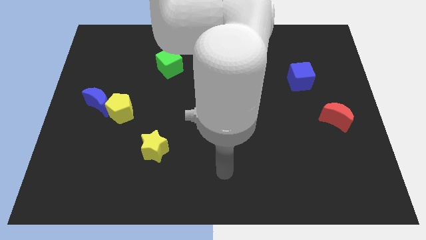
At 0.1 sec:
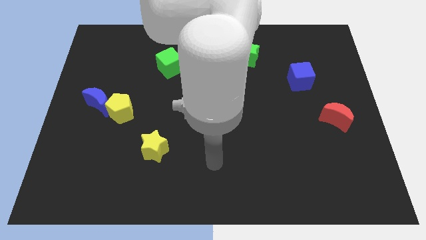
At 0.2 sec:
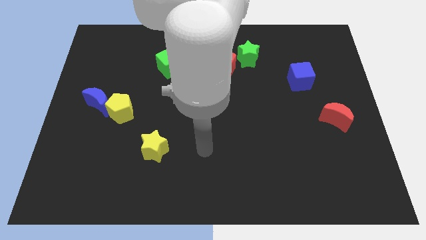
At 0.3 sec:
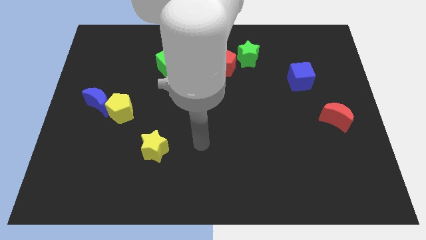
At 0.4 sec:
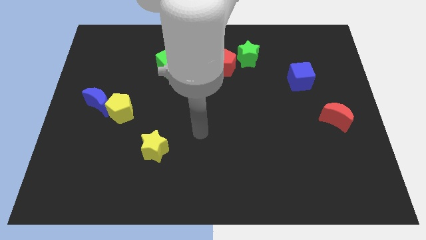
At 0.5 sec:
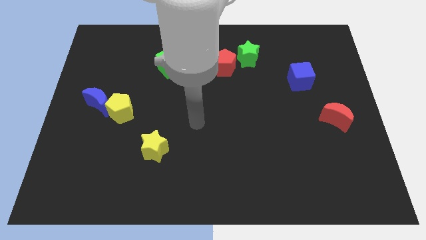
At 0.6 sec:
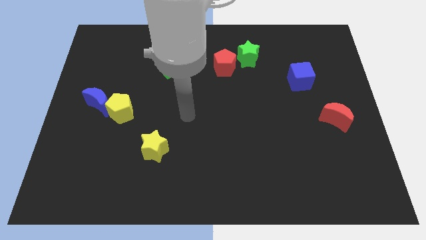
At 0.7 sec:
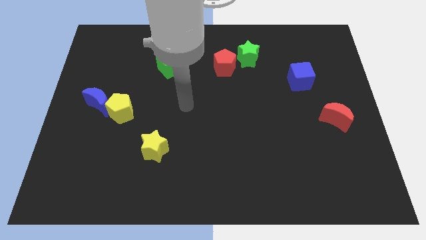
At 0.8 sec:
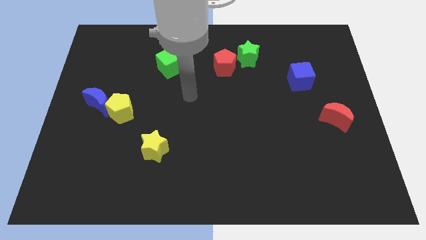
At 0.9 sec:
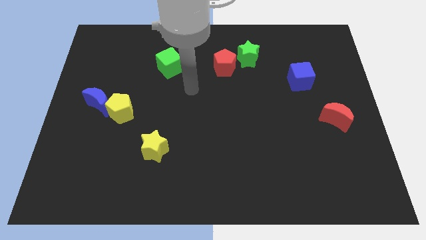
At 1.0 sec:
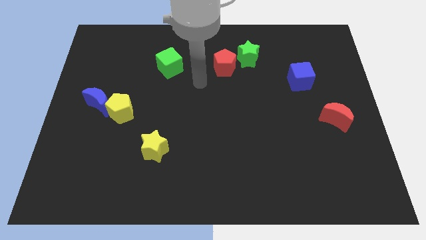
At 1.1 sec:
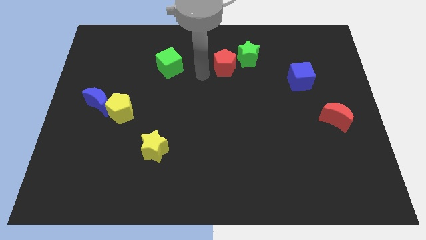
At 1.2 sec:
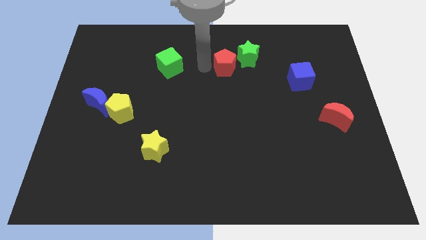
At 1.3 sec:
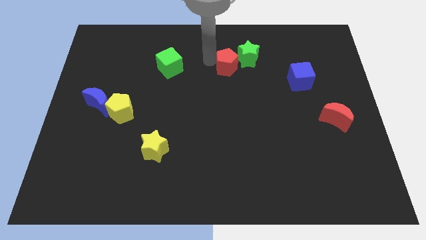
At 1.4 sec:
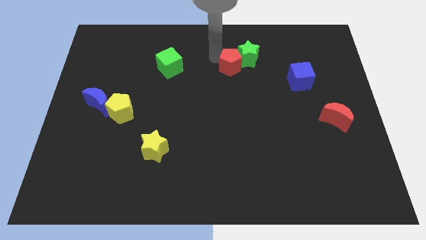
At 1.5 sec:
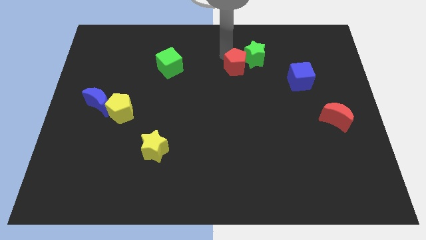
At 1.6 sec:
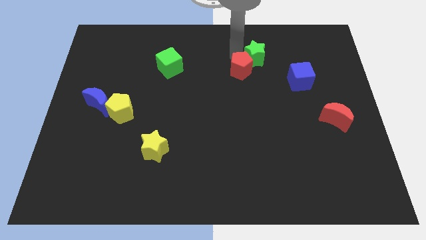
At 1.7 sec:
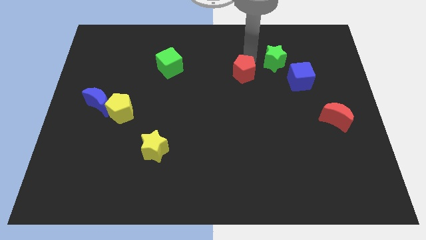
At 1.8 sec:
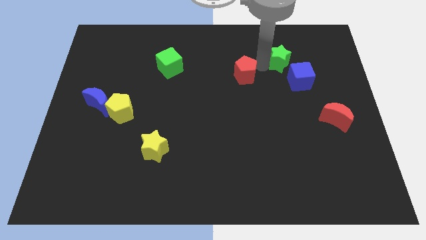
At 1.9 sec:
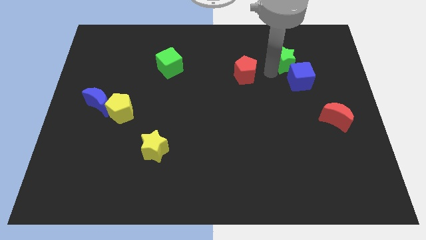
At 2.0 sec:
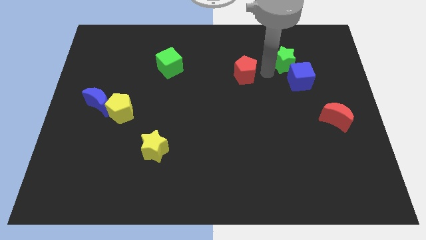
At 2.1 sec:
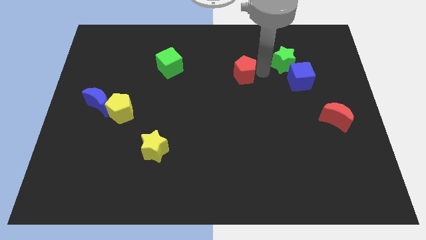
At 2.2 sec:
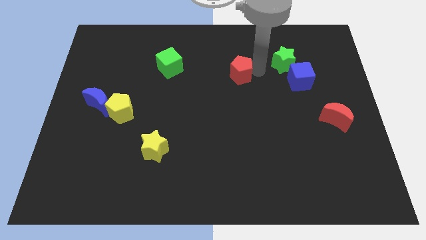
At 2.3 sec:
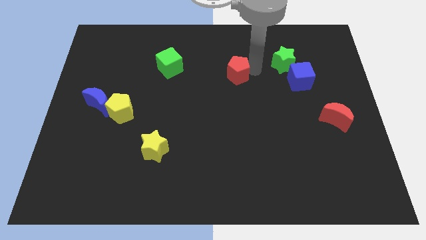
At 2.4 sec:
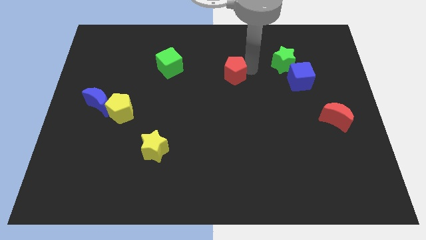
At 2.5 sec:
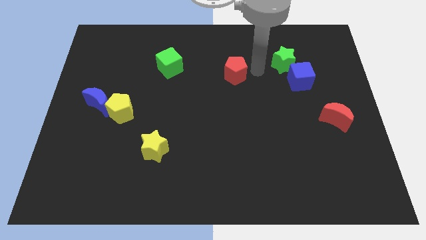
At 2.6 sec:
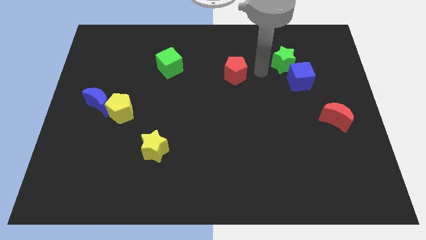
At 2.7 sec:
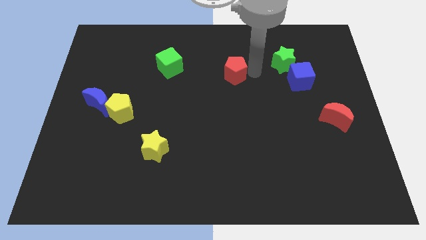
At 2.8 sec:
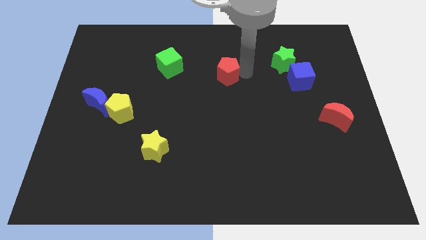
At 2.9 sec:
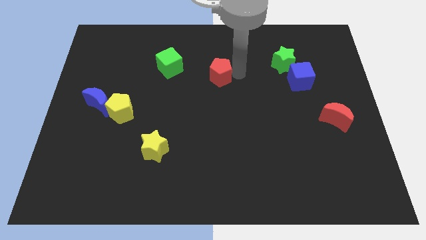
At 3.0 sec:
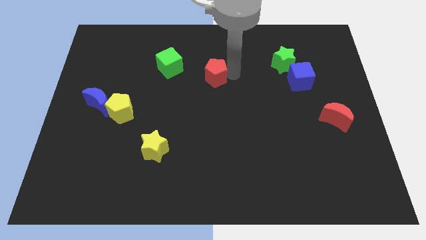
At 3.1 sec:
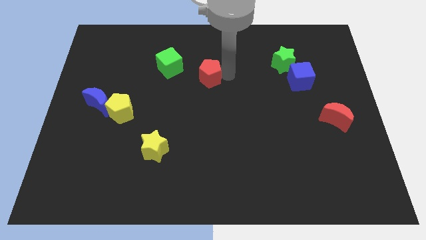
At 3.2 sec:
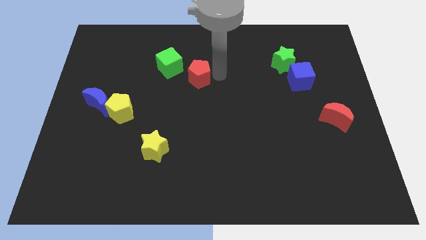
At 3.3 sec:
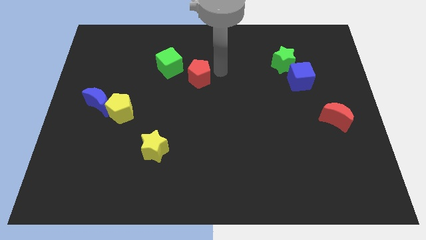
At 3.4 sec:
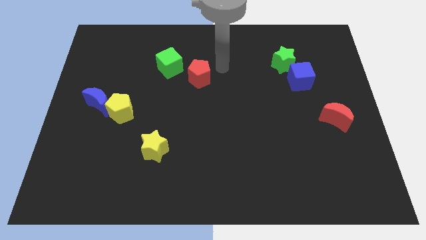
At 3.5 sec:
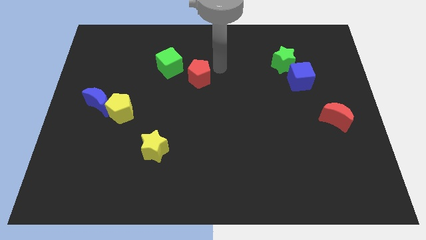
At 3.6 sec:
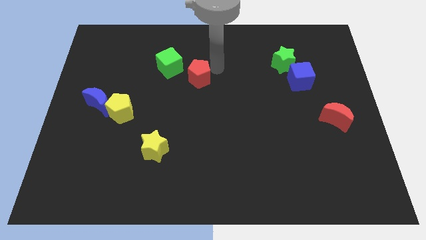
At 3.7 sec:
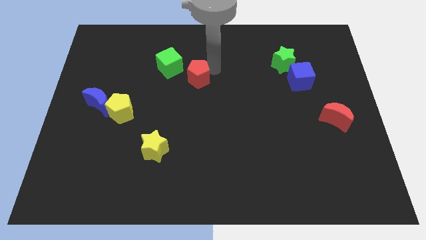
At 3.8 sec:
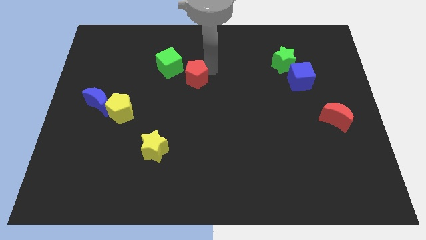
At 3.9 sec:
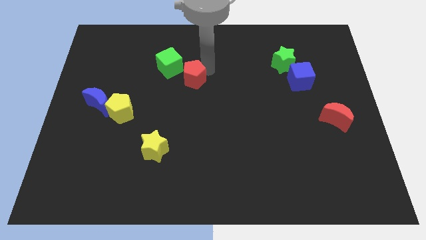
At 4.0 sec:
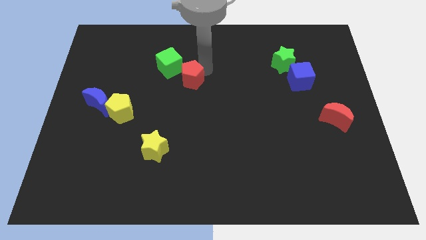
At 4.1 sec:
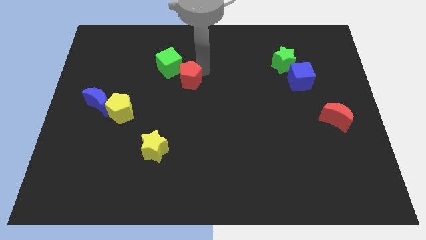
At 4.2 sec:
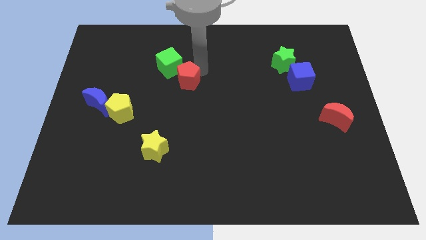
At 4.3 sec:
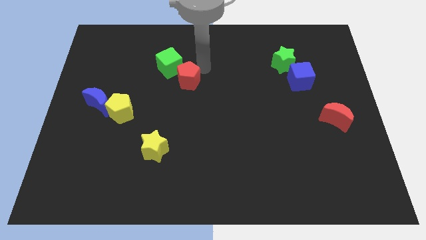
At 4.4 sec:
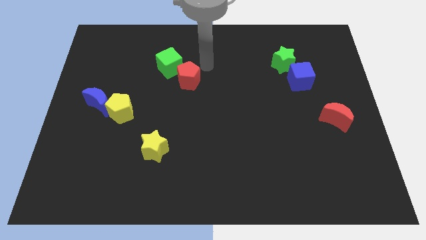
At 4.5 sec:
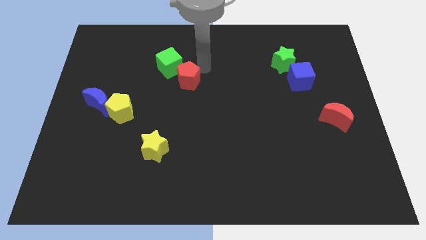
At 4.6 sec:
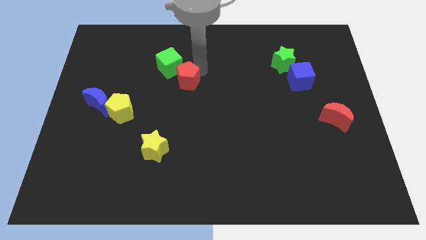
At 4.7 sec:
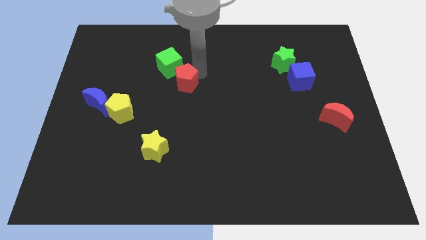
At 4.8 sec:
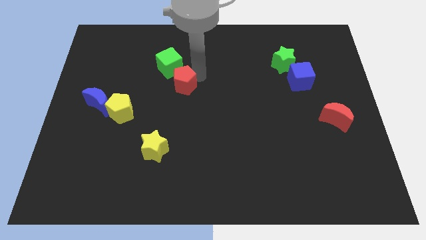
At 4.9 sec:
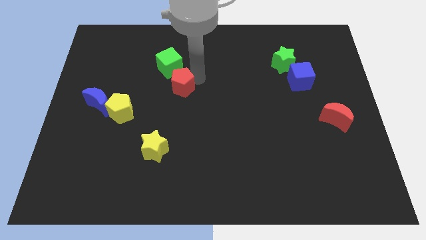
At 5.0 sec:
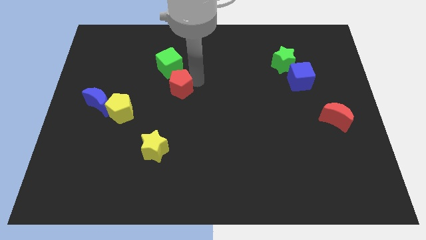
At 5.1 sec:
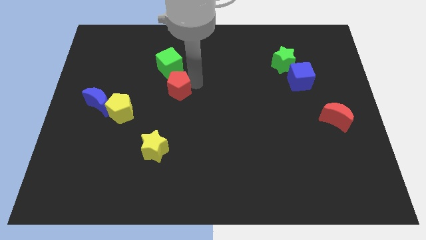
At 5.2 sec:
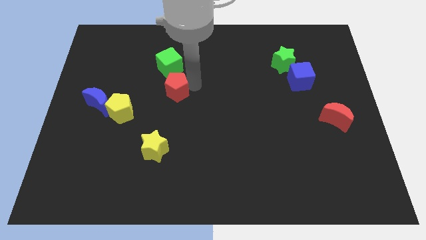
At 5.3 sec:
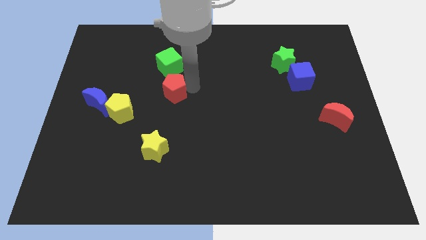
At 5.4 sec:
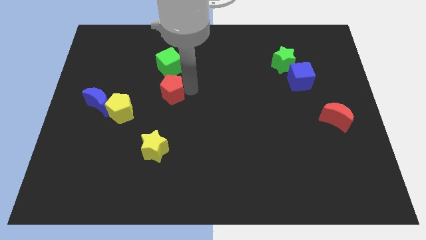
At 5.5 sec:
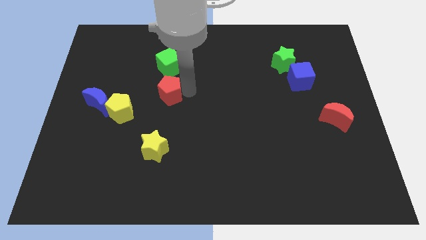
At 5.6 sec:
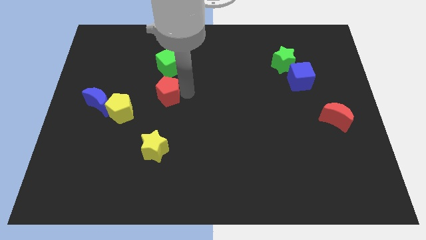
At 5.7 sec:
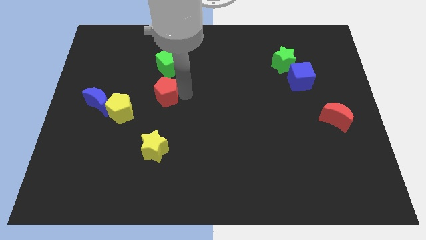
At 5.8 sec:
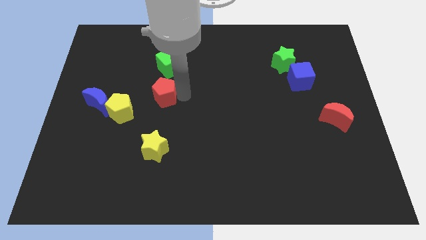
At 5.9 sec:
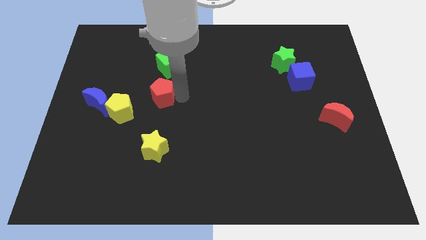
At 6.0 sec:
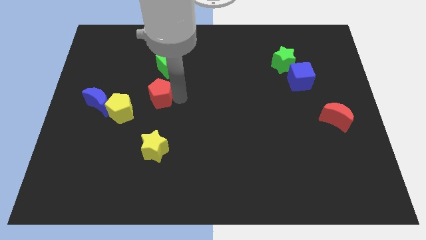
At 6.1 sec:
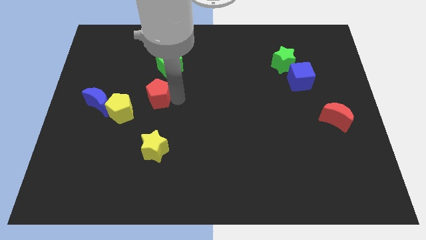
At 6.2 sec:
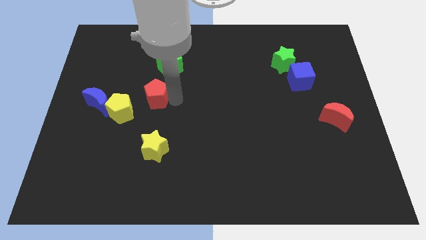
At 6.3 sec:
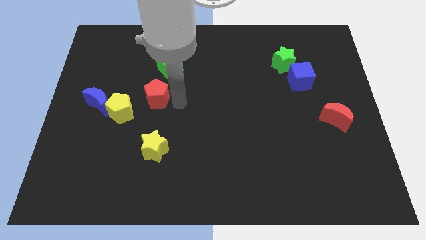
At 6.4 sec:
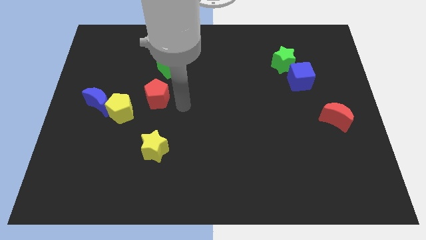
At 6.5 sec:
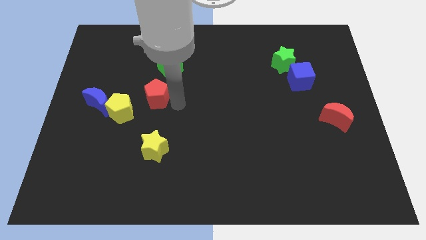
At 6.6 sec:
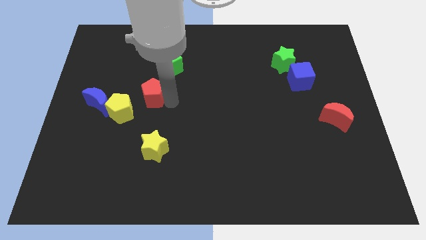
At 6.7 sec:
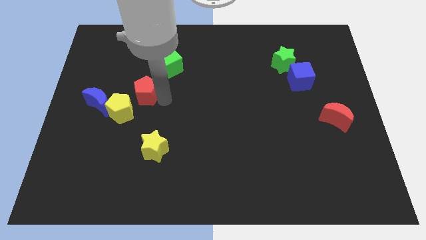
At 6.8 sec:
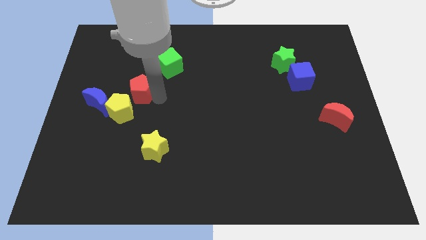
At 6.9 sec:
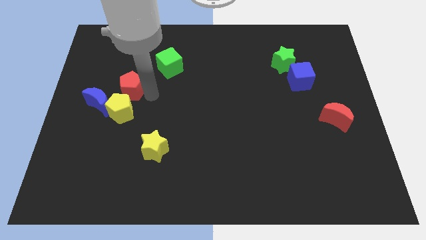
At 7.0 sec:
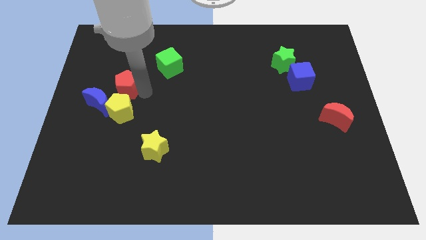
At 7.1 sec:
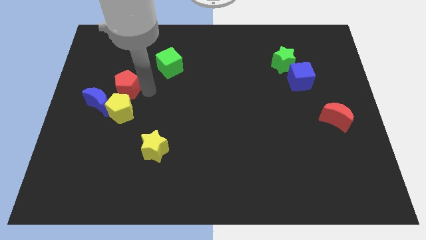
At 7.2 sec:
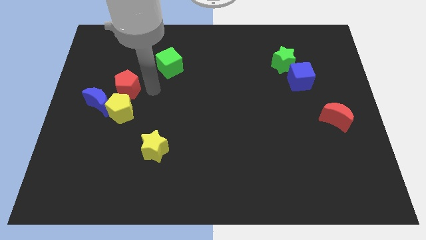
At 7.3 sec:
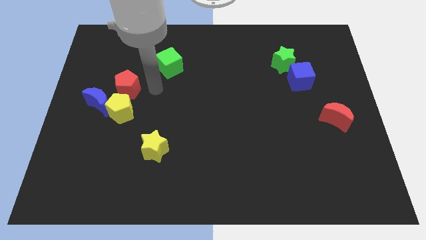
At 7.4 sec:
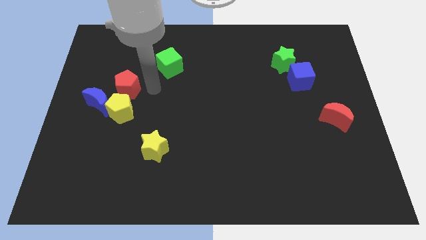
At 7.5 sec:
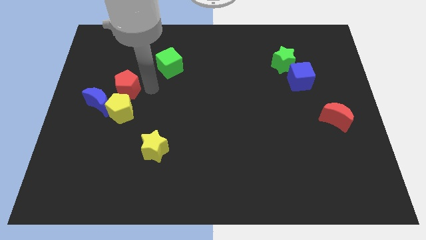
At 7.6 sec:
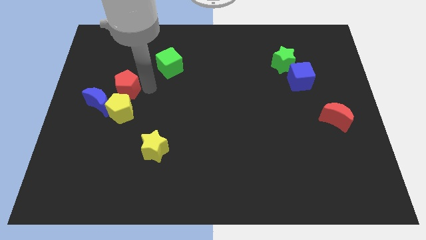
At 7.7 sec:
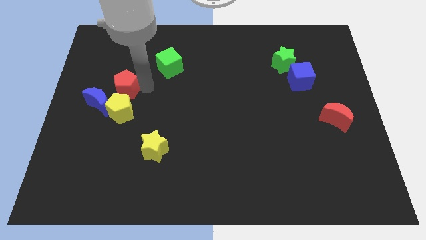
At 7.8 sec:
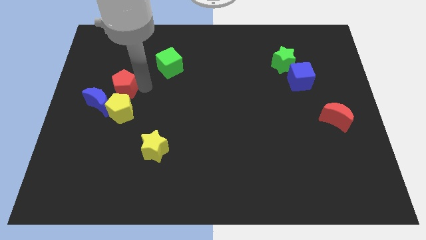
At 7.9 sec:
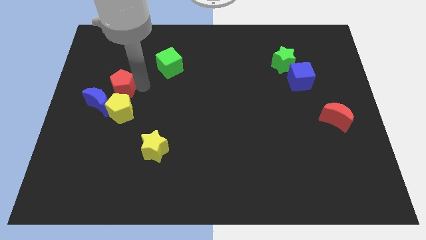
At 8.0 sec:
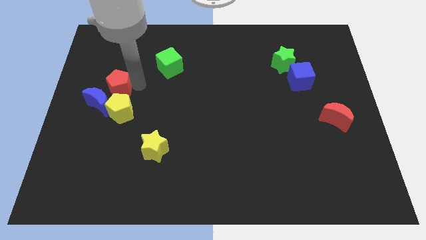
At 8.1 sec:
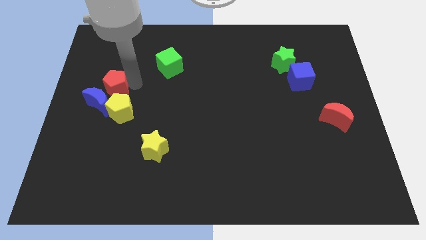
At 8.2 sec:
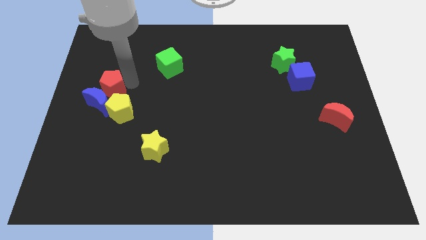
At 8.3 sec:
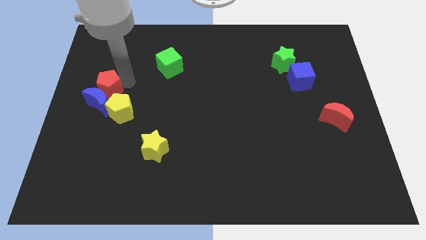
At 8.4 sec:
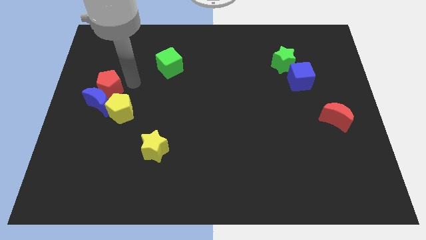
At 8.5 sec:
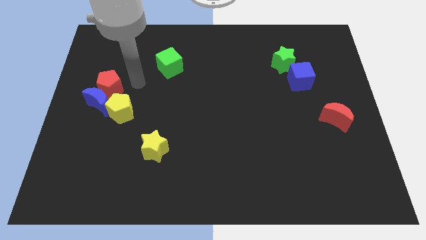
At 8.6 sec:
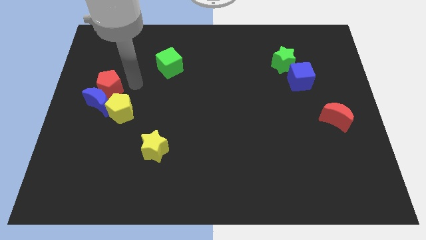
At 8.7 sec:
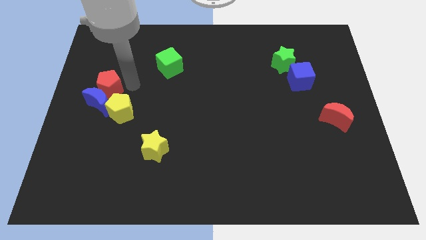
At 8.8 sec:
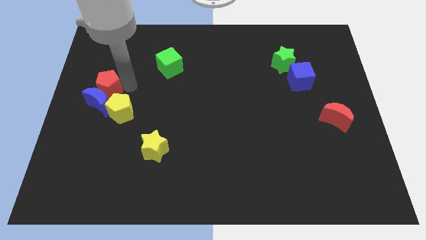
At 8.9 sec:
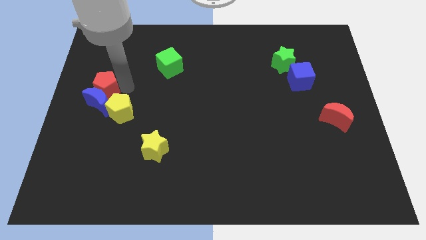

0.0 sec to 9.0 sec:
move the red pentagon to the left side of the board
